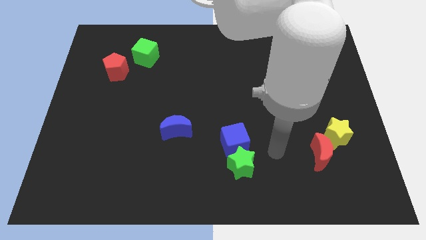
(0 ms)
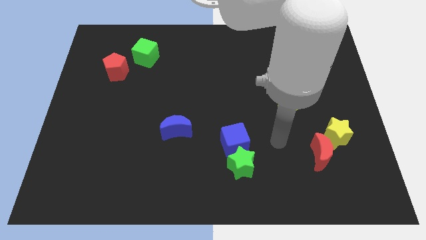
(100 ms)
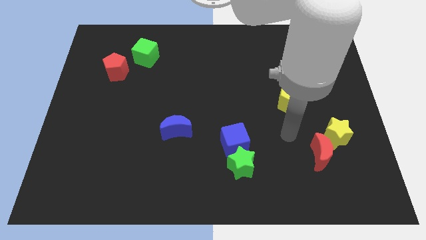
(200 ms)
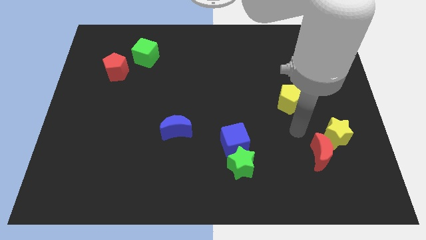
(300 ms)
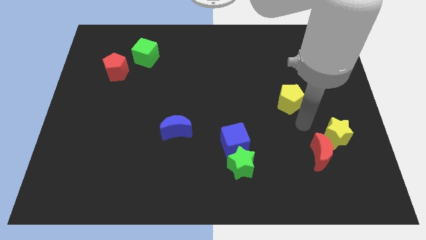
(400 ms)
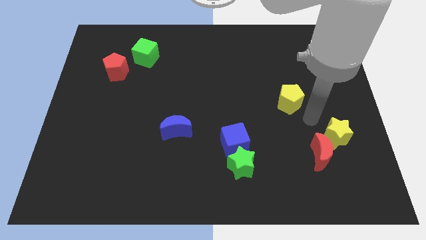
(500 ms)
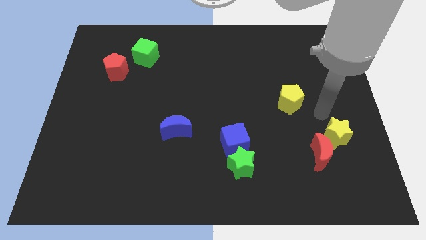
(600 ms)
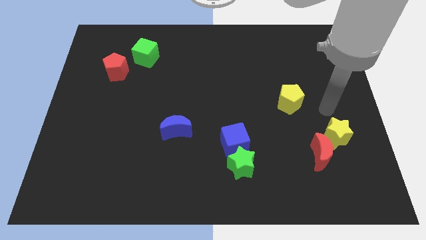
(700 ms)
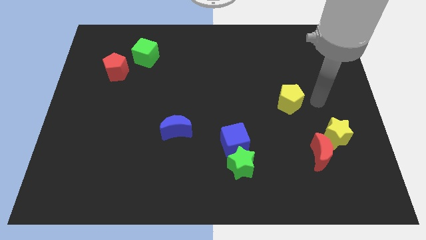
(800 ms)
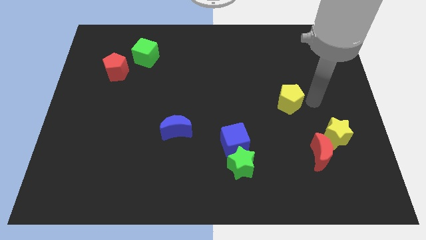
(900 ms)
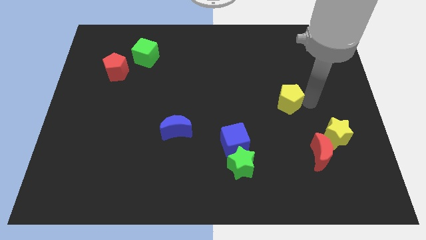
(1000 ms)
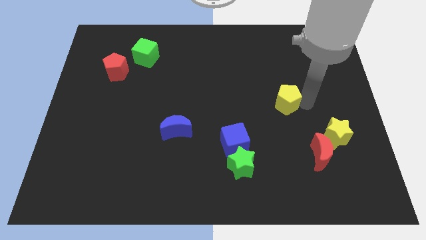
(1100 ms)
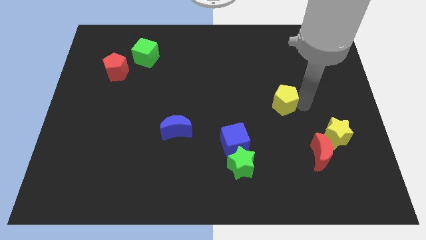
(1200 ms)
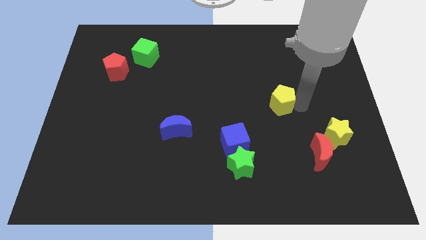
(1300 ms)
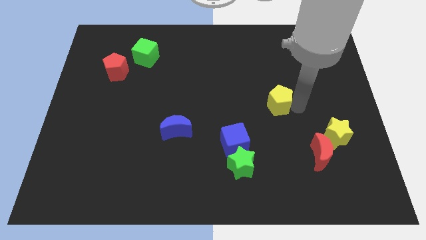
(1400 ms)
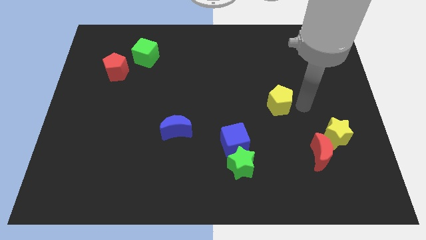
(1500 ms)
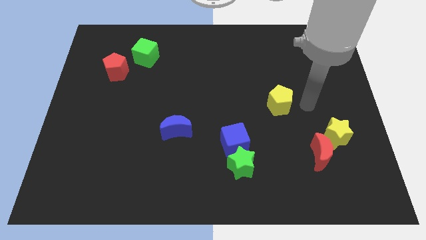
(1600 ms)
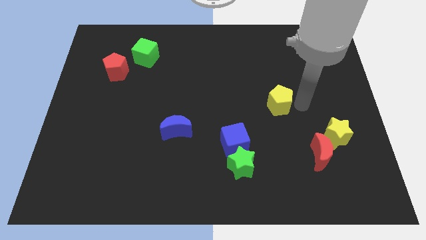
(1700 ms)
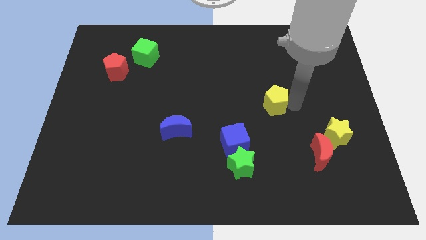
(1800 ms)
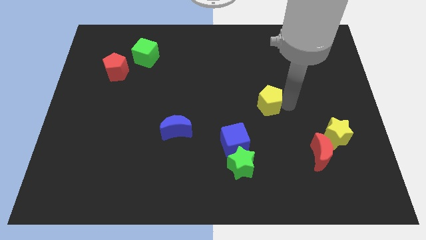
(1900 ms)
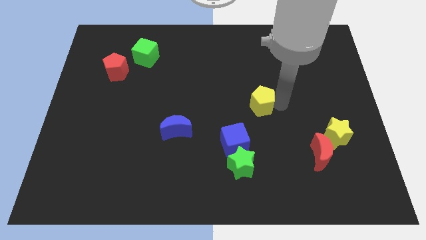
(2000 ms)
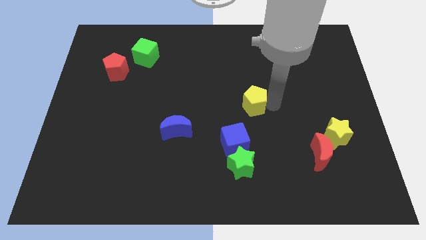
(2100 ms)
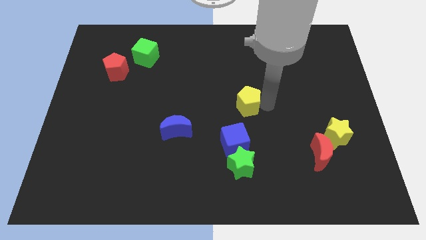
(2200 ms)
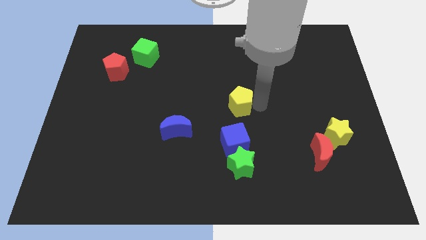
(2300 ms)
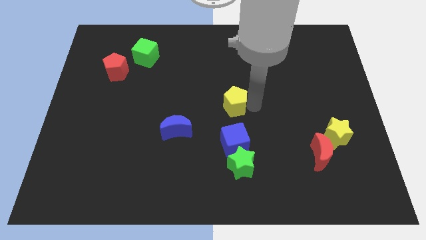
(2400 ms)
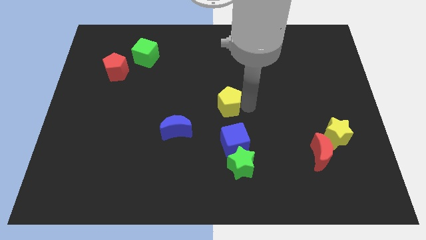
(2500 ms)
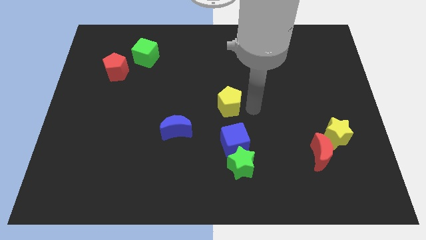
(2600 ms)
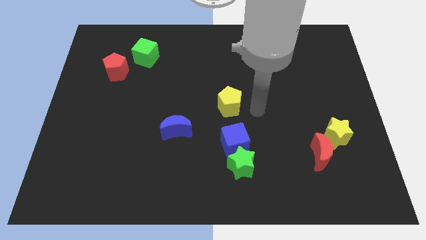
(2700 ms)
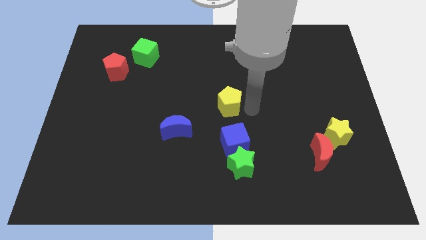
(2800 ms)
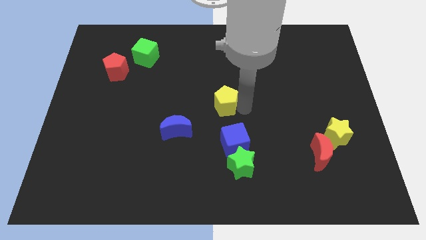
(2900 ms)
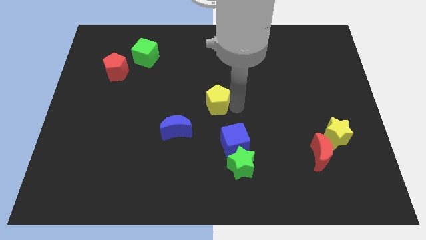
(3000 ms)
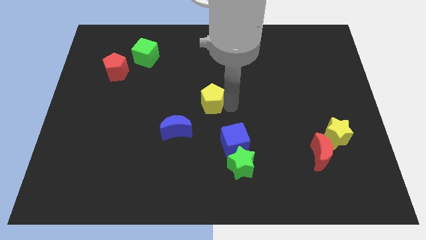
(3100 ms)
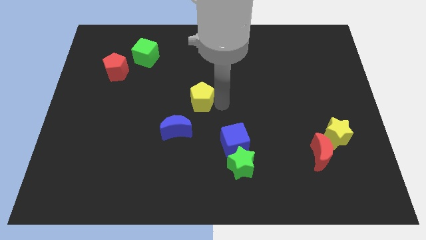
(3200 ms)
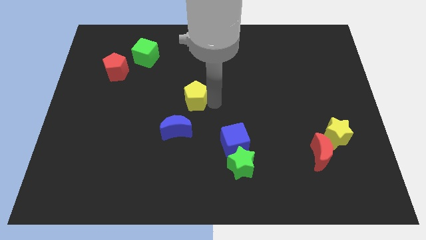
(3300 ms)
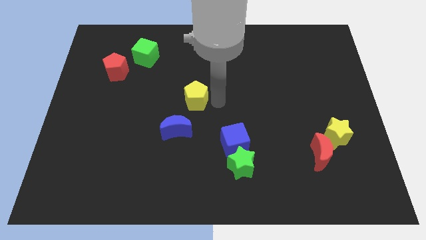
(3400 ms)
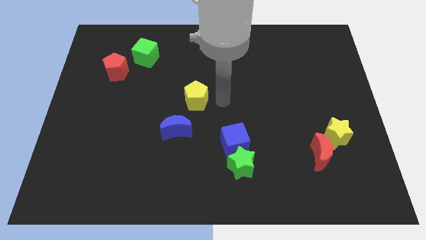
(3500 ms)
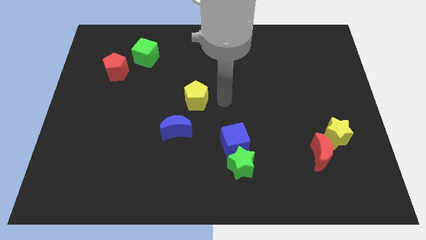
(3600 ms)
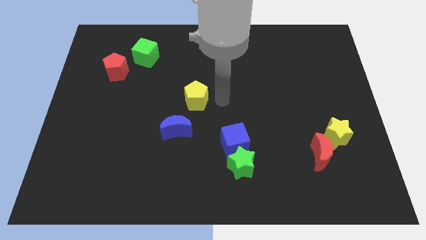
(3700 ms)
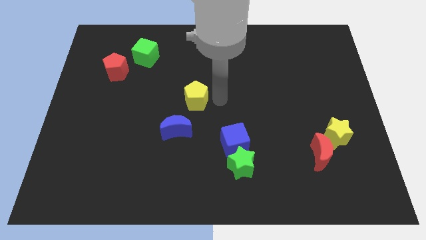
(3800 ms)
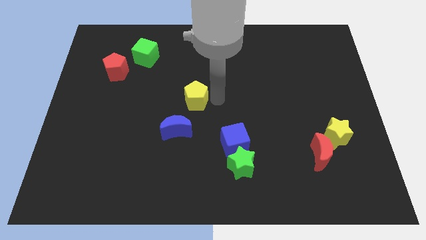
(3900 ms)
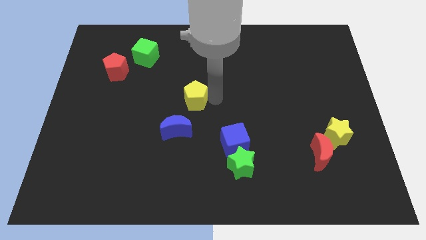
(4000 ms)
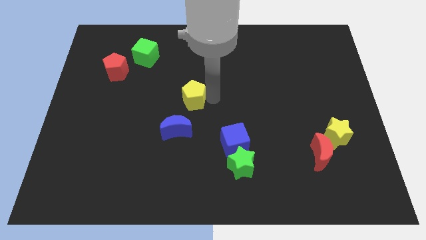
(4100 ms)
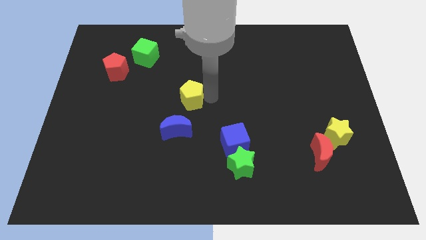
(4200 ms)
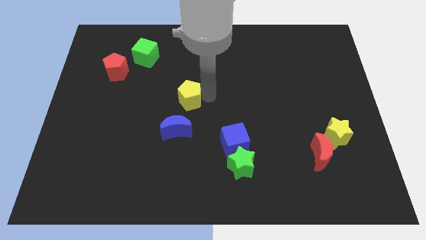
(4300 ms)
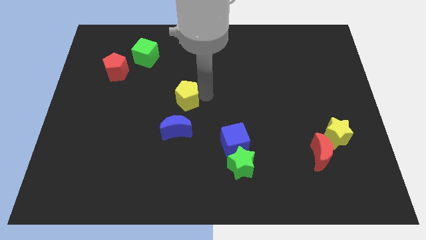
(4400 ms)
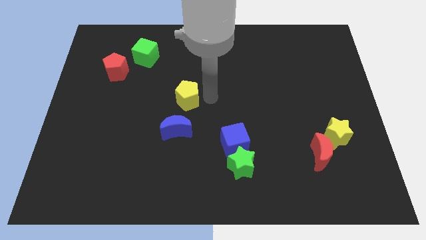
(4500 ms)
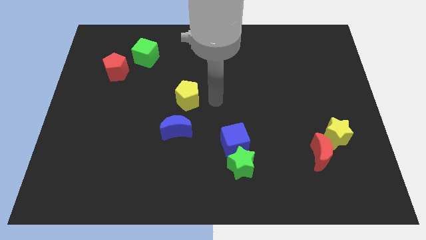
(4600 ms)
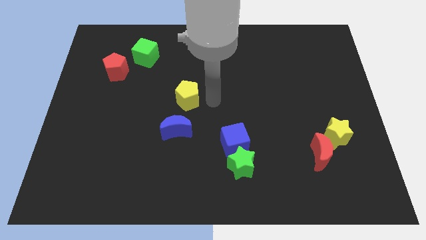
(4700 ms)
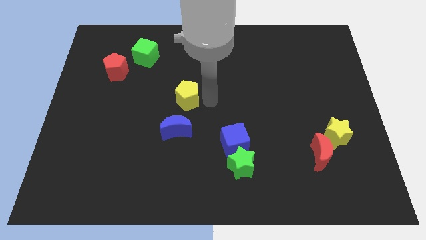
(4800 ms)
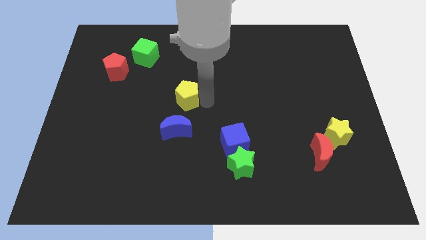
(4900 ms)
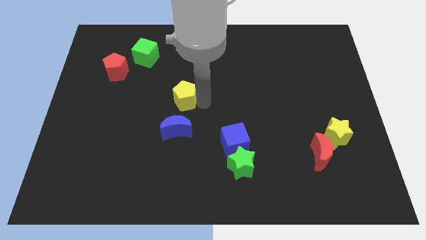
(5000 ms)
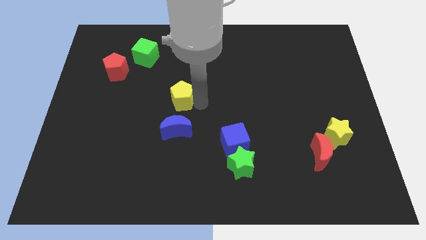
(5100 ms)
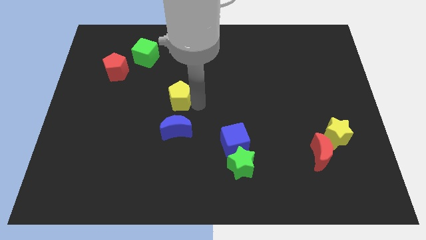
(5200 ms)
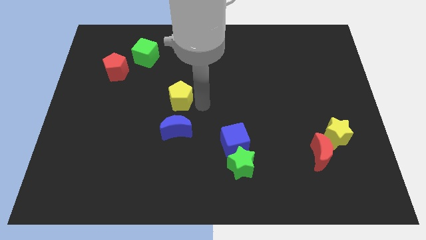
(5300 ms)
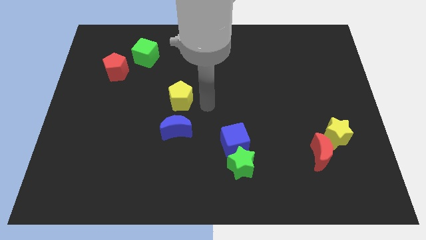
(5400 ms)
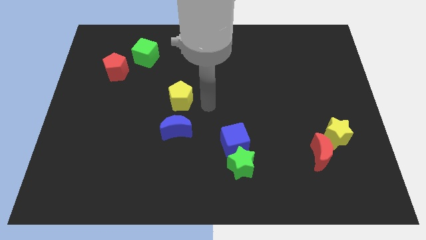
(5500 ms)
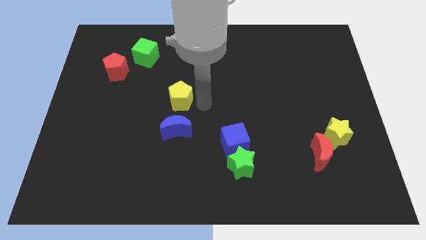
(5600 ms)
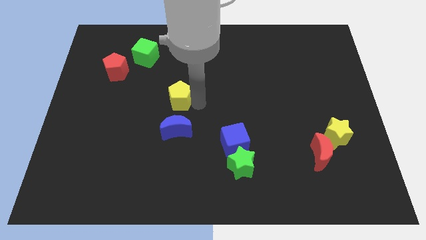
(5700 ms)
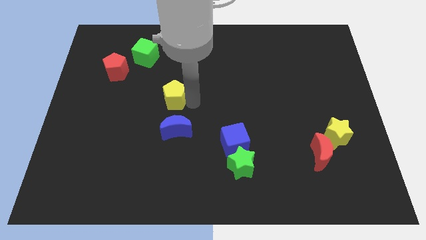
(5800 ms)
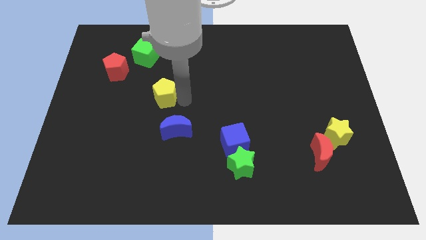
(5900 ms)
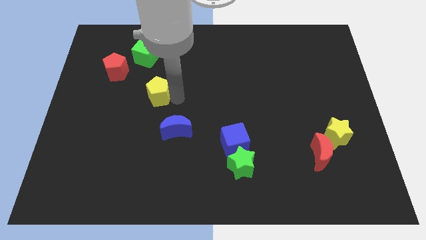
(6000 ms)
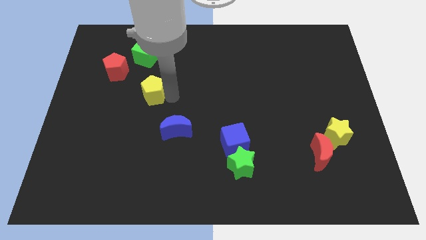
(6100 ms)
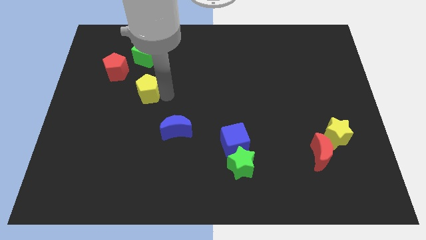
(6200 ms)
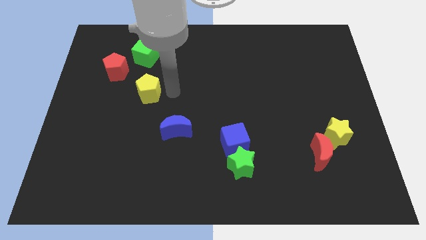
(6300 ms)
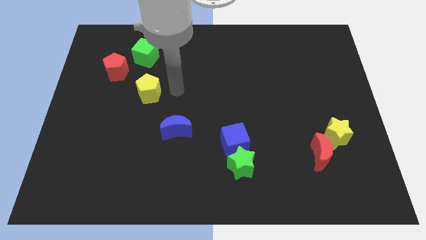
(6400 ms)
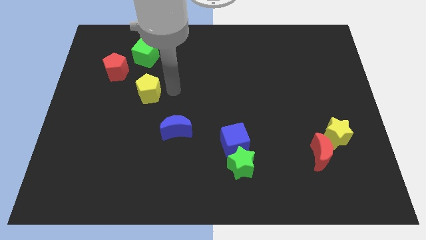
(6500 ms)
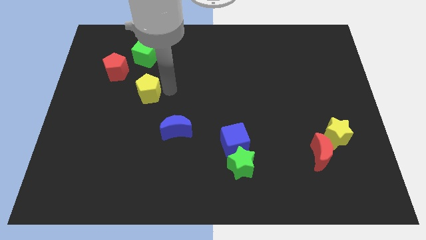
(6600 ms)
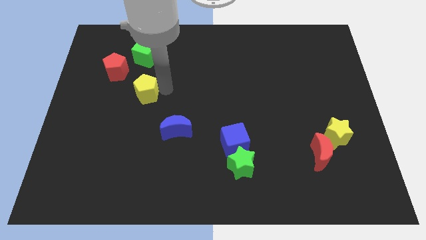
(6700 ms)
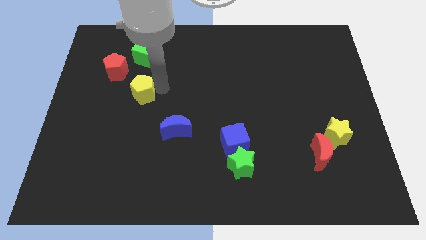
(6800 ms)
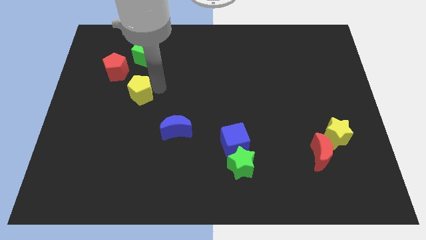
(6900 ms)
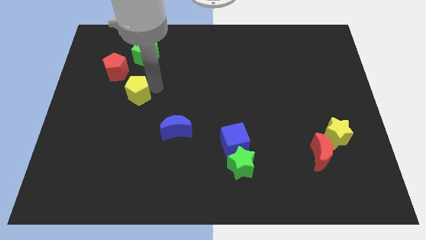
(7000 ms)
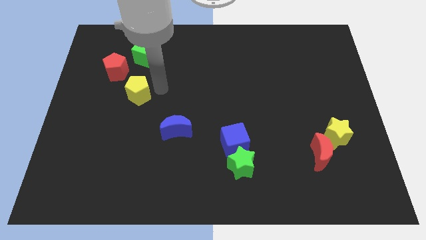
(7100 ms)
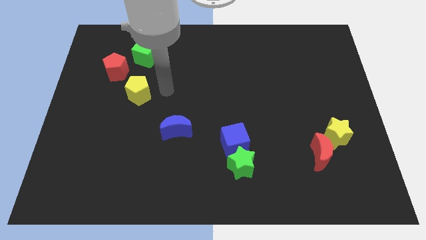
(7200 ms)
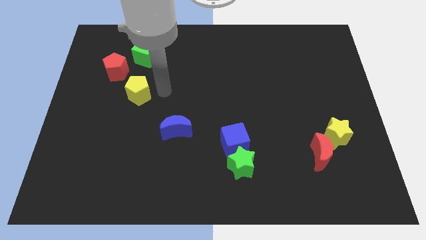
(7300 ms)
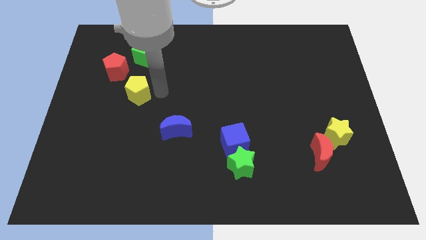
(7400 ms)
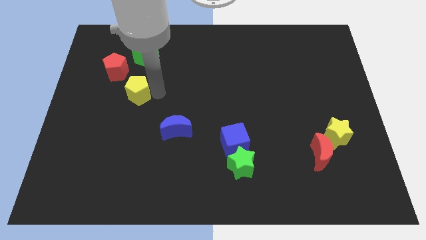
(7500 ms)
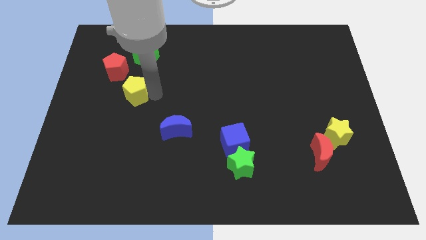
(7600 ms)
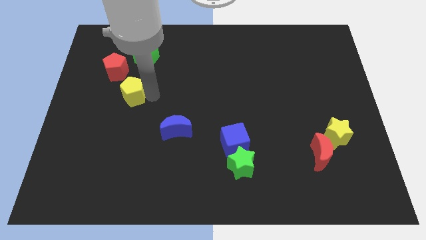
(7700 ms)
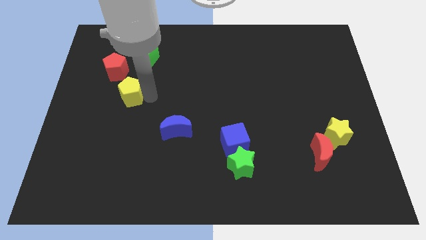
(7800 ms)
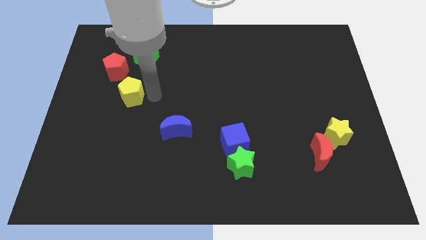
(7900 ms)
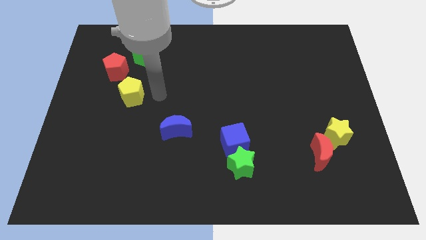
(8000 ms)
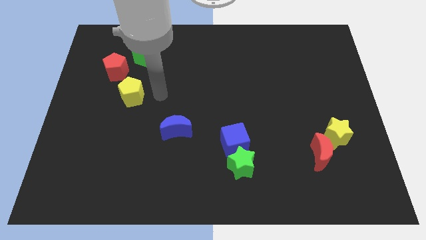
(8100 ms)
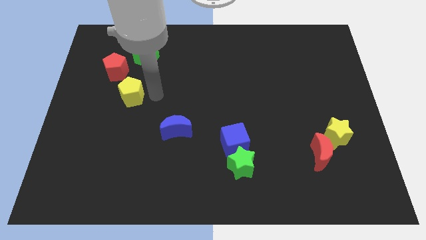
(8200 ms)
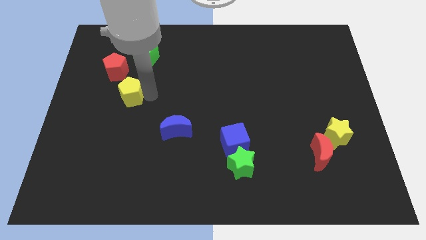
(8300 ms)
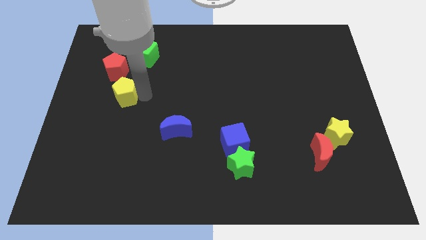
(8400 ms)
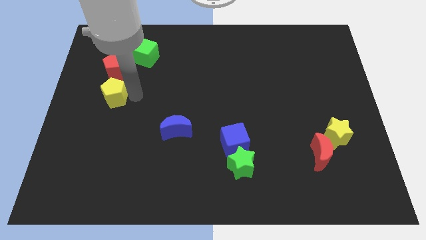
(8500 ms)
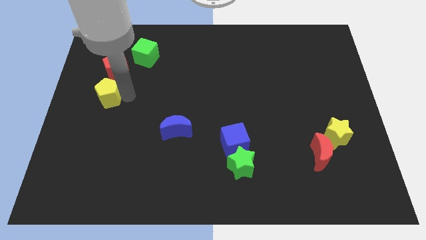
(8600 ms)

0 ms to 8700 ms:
move the yellow pentagon to the left side
